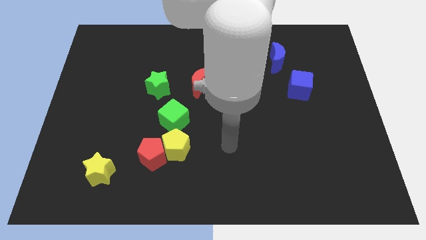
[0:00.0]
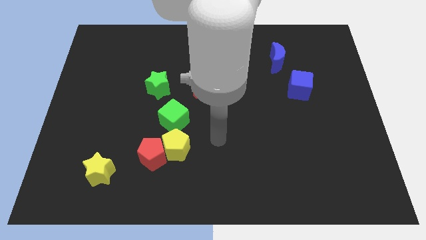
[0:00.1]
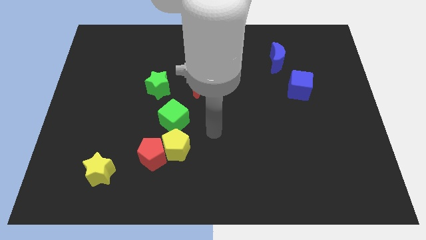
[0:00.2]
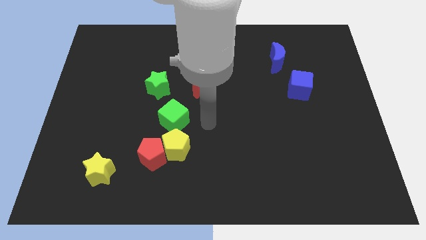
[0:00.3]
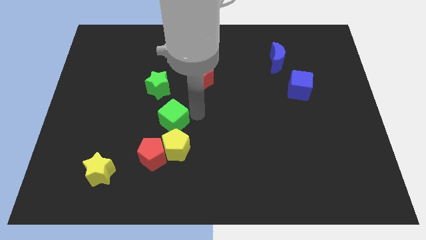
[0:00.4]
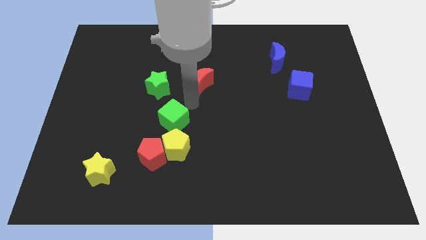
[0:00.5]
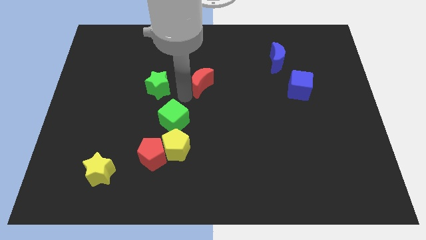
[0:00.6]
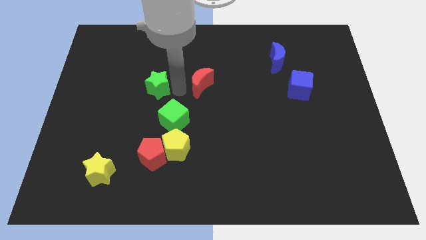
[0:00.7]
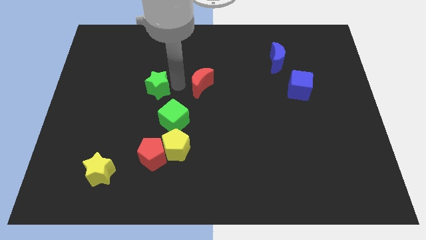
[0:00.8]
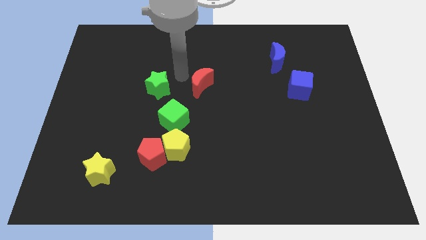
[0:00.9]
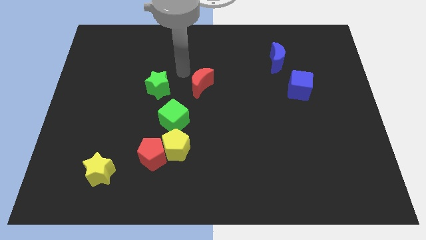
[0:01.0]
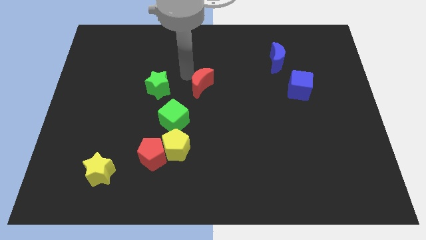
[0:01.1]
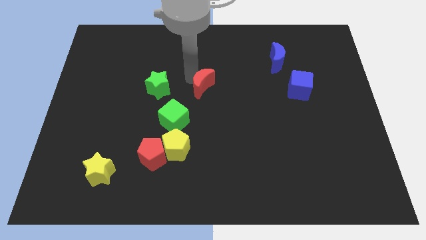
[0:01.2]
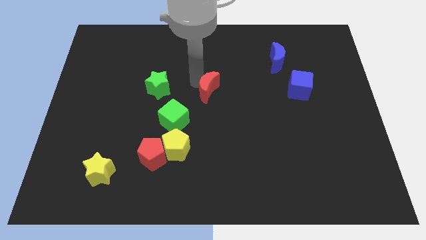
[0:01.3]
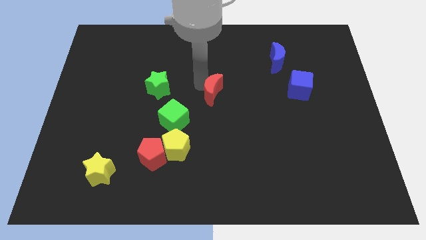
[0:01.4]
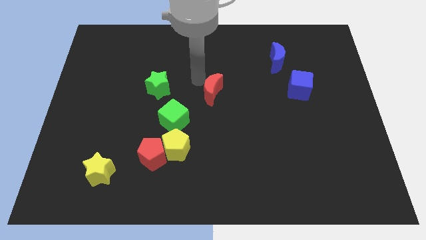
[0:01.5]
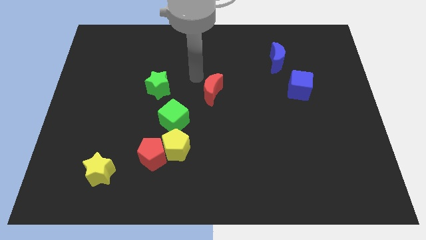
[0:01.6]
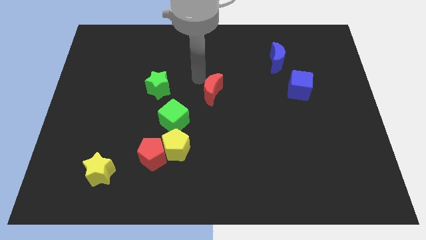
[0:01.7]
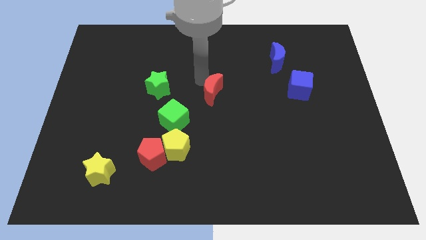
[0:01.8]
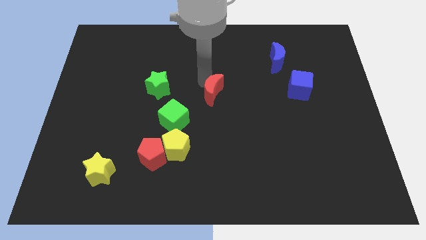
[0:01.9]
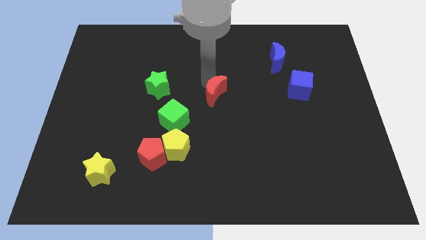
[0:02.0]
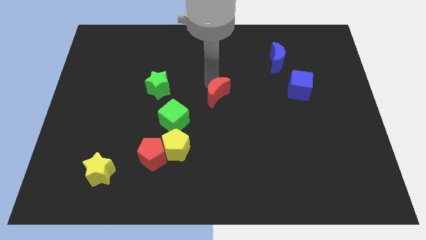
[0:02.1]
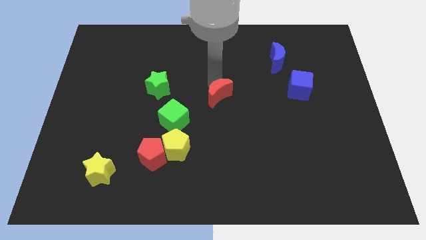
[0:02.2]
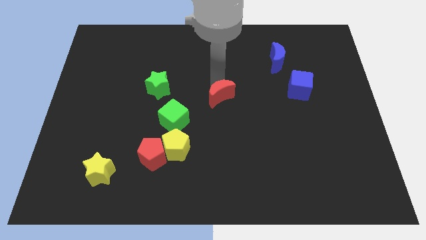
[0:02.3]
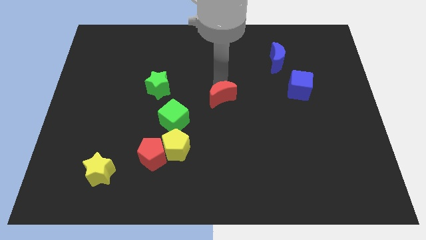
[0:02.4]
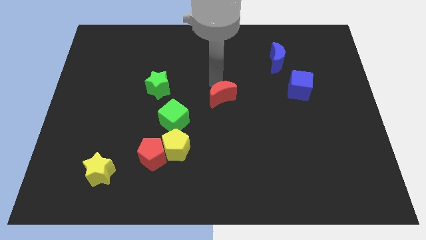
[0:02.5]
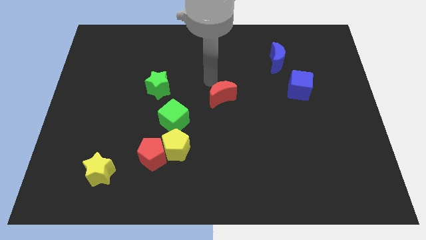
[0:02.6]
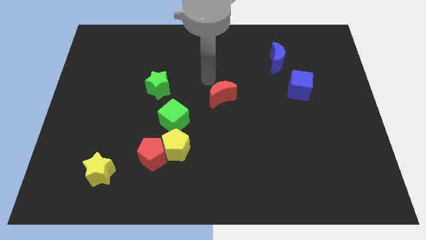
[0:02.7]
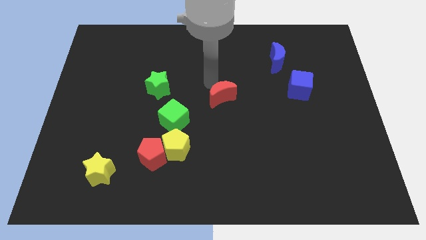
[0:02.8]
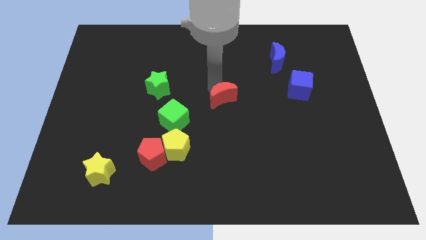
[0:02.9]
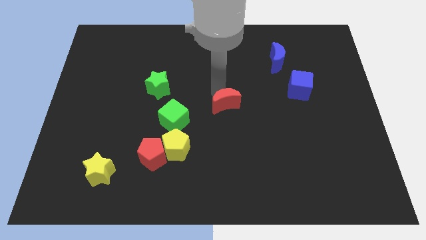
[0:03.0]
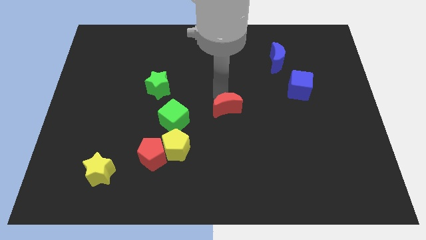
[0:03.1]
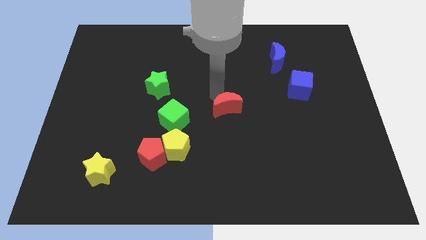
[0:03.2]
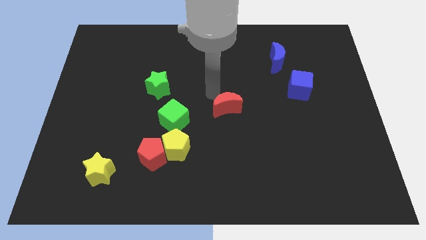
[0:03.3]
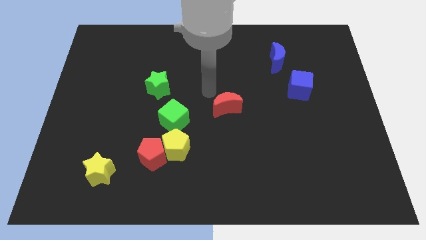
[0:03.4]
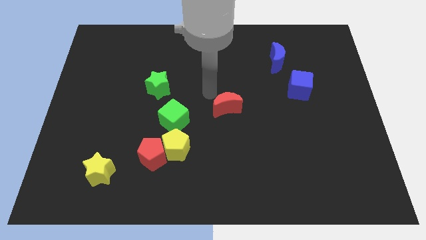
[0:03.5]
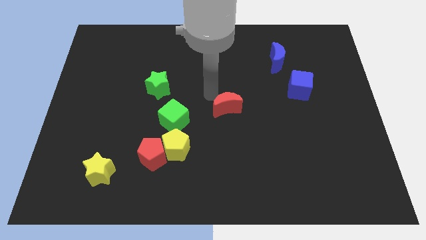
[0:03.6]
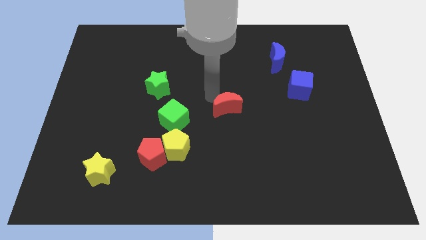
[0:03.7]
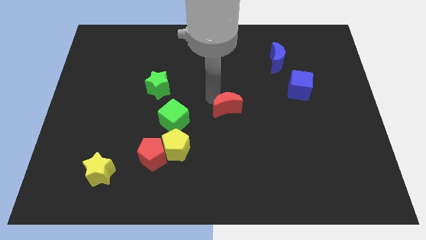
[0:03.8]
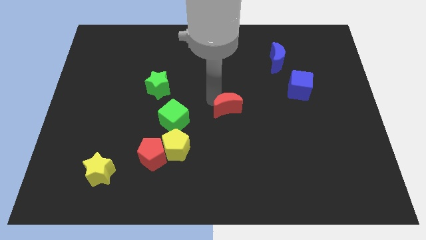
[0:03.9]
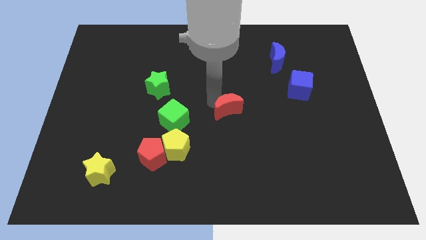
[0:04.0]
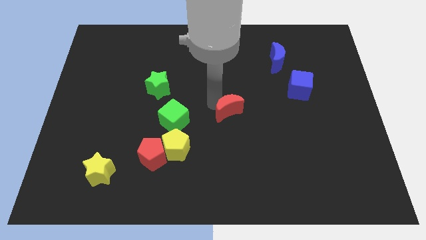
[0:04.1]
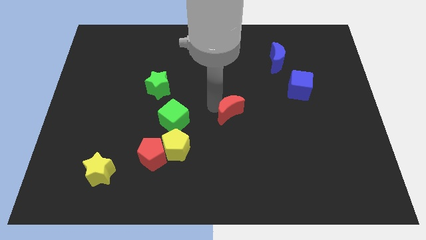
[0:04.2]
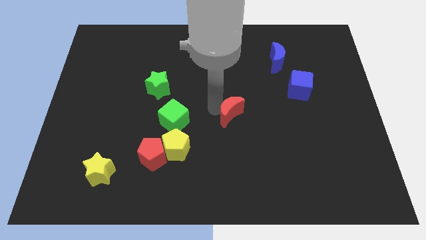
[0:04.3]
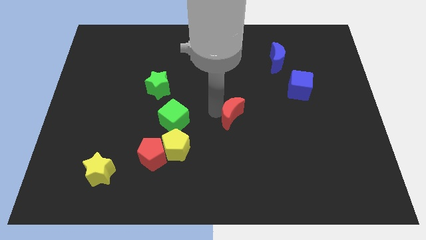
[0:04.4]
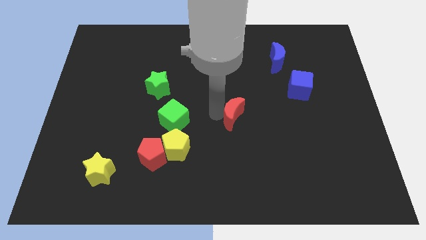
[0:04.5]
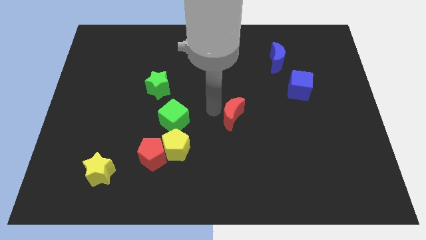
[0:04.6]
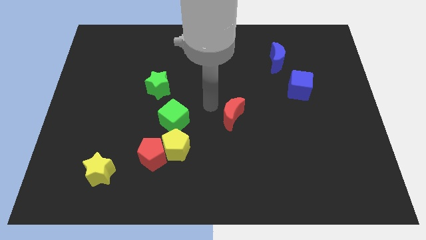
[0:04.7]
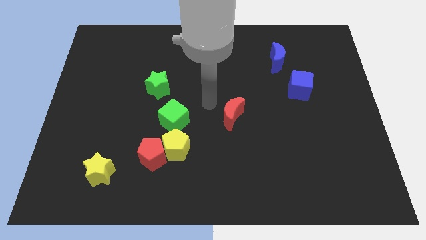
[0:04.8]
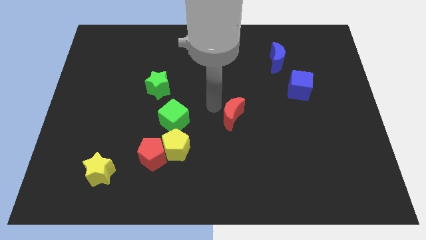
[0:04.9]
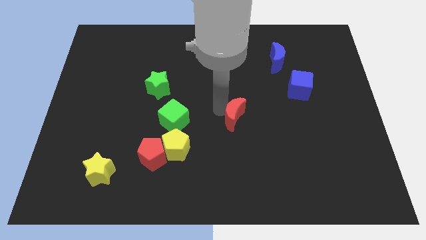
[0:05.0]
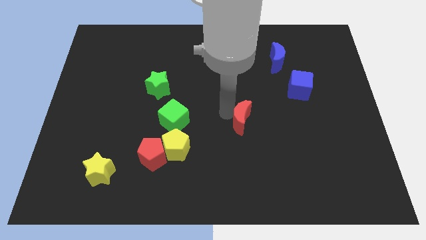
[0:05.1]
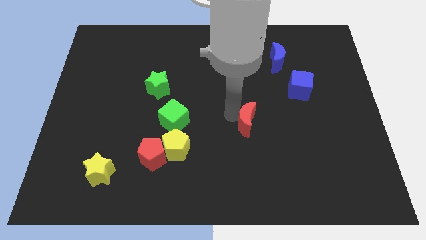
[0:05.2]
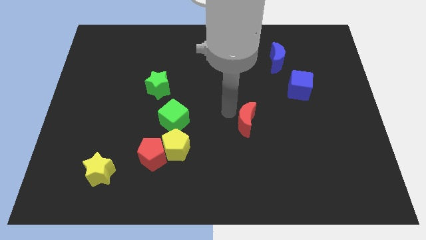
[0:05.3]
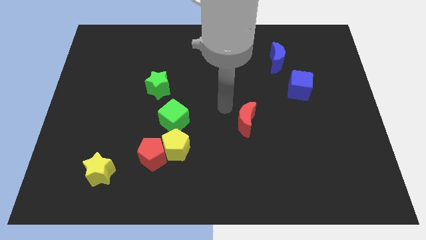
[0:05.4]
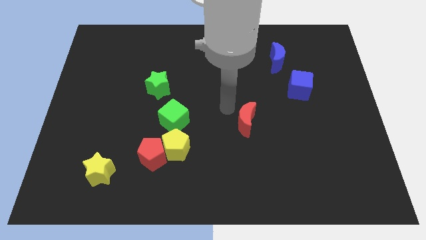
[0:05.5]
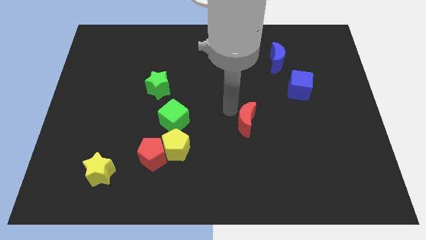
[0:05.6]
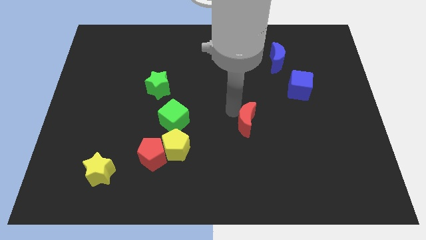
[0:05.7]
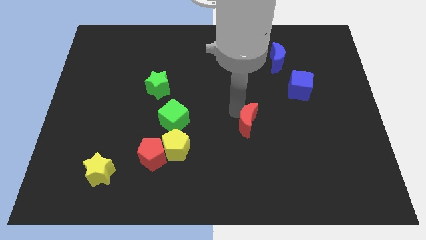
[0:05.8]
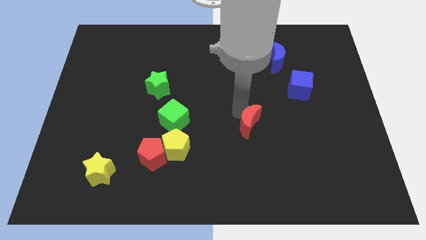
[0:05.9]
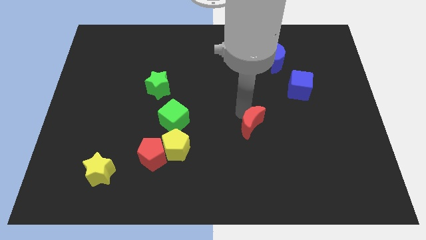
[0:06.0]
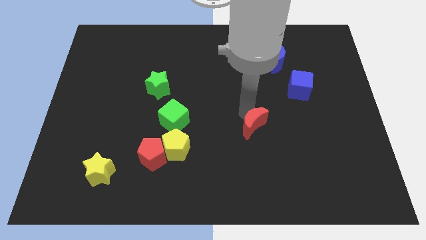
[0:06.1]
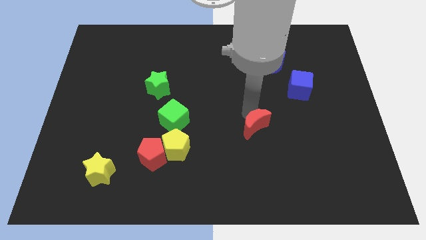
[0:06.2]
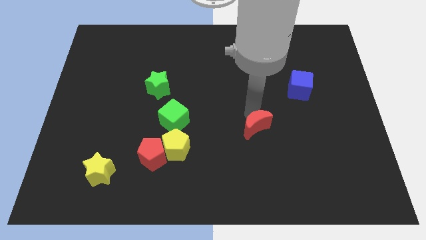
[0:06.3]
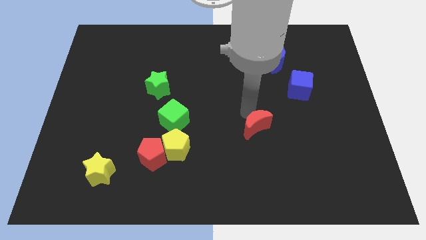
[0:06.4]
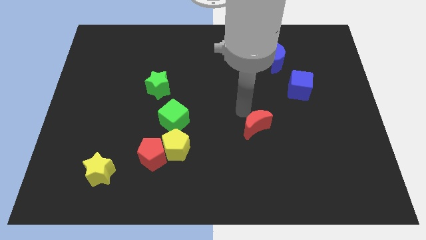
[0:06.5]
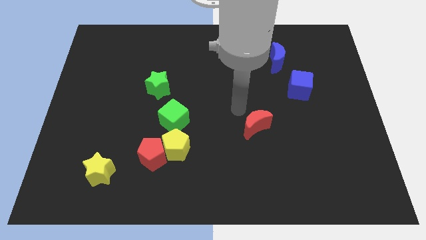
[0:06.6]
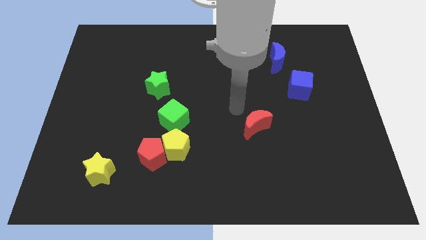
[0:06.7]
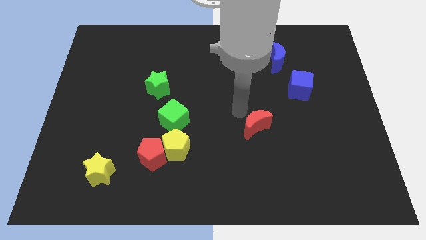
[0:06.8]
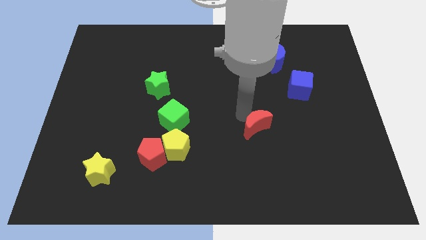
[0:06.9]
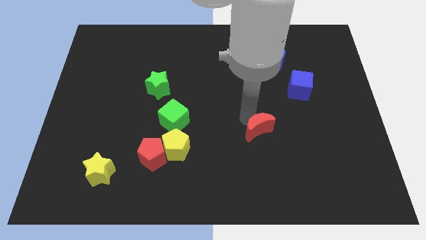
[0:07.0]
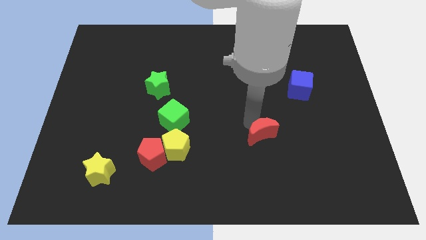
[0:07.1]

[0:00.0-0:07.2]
slide the red moon diagonally down and to the right

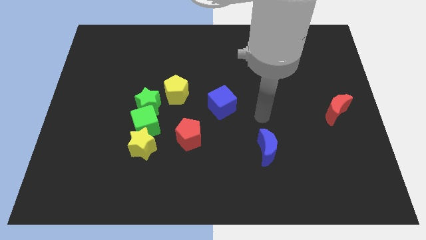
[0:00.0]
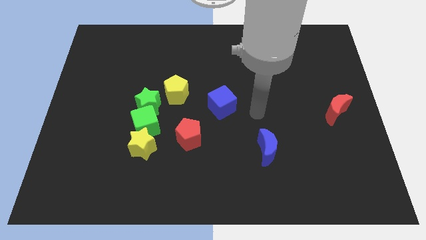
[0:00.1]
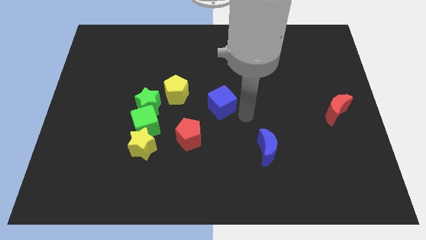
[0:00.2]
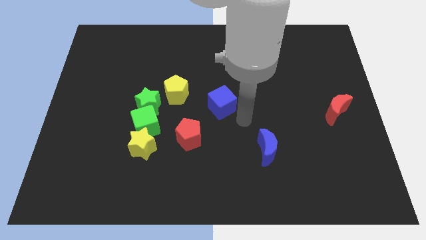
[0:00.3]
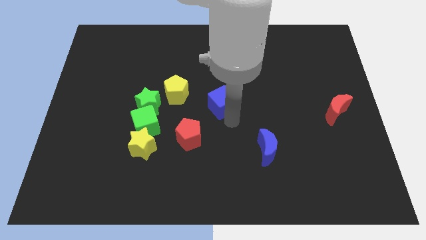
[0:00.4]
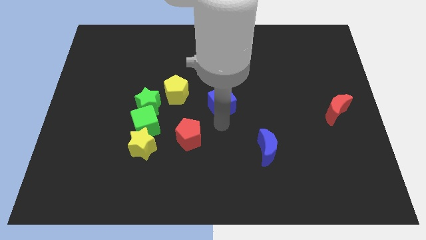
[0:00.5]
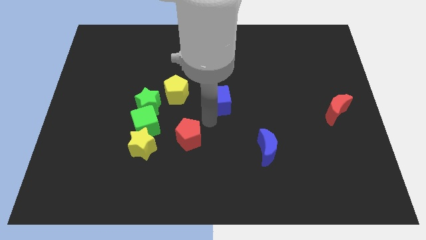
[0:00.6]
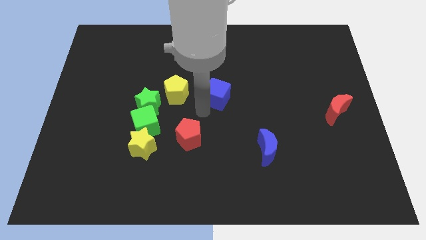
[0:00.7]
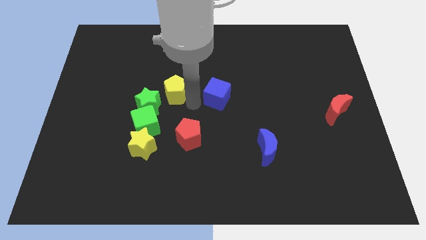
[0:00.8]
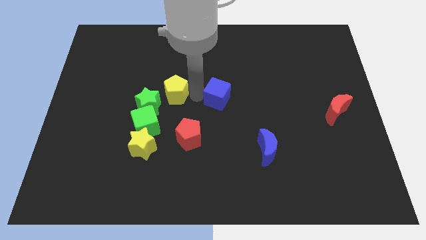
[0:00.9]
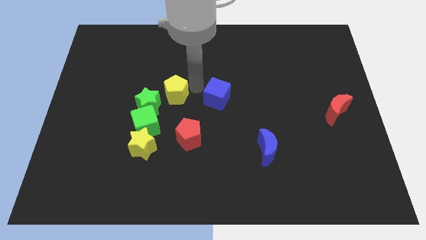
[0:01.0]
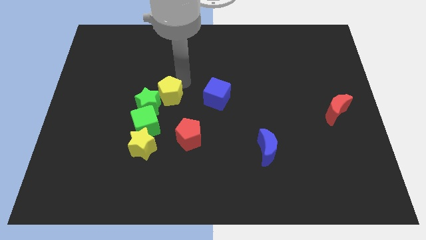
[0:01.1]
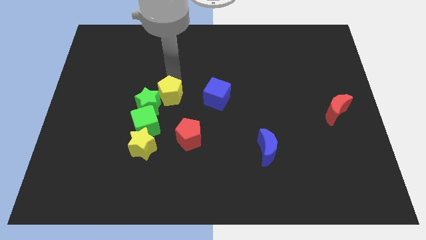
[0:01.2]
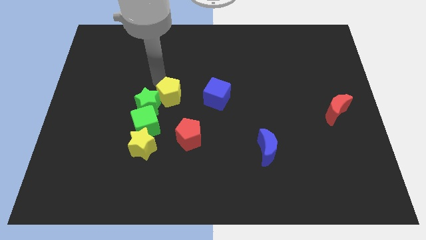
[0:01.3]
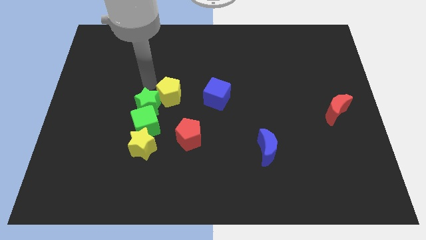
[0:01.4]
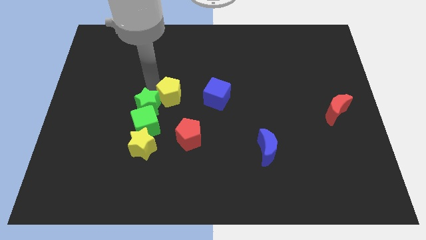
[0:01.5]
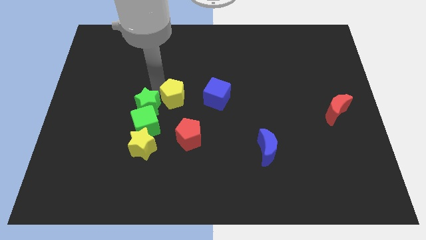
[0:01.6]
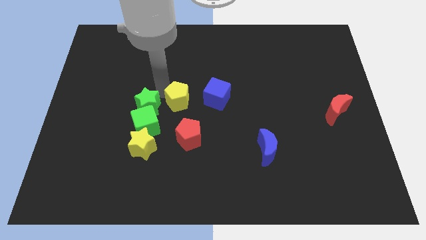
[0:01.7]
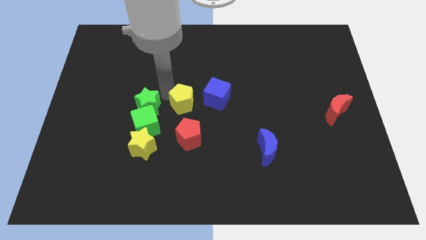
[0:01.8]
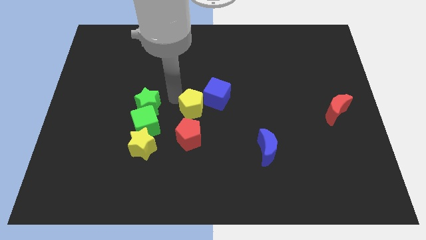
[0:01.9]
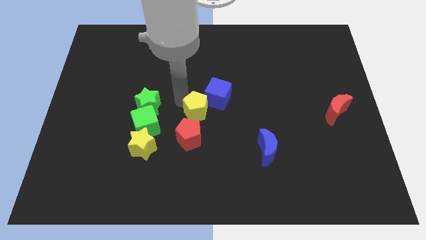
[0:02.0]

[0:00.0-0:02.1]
move the yellow pentagon downwards and right diagonally a little bit
